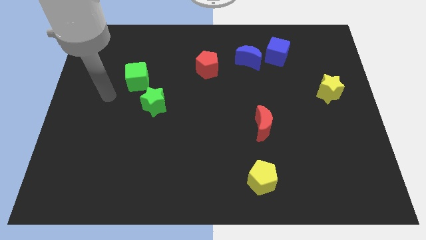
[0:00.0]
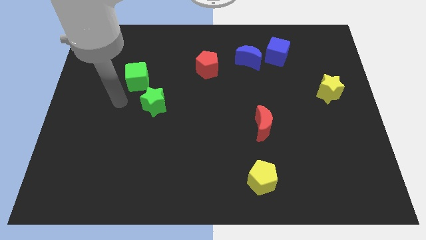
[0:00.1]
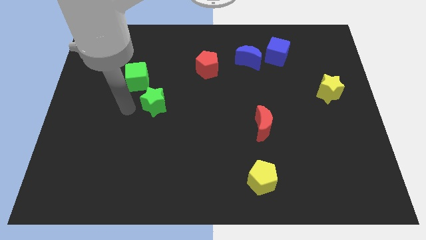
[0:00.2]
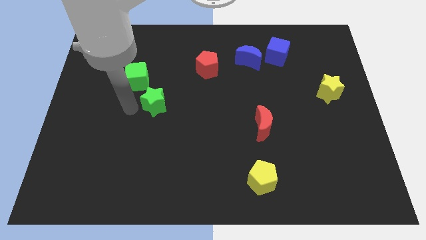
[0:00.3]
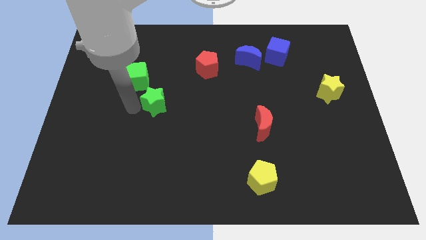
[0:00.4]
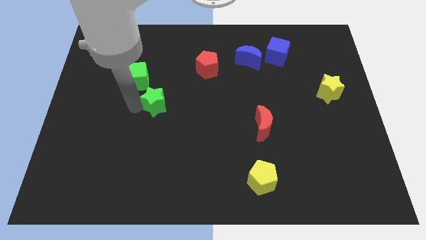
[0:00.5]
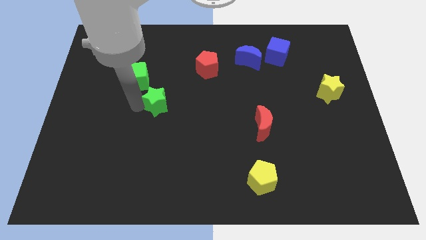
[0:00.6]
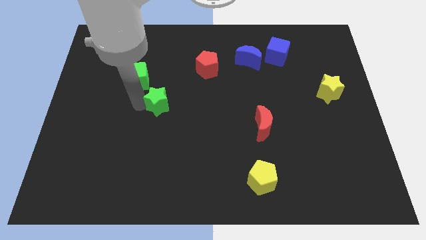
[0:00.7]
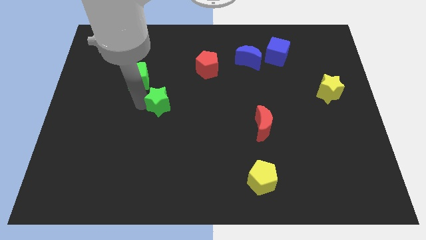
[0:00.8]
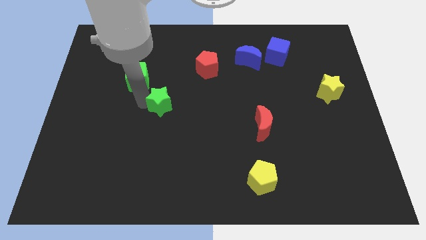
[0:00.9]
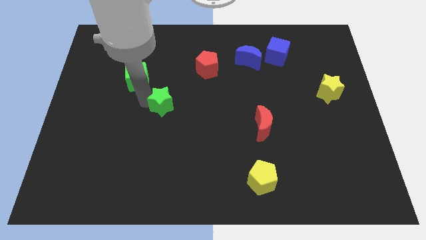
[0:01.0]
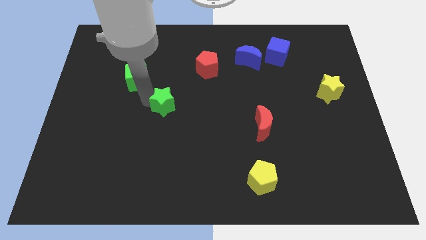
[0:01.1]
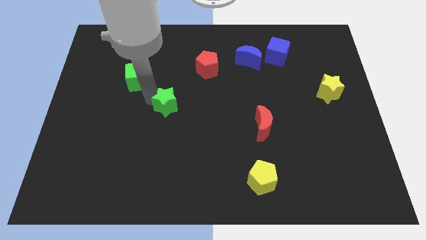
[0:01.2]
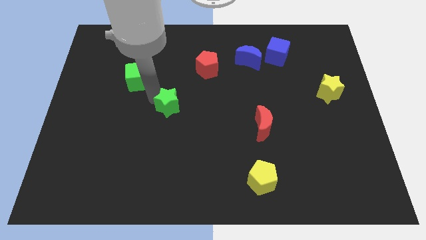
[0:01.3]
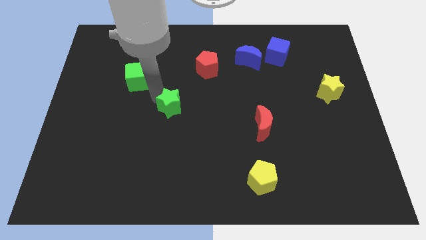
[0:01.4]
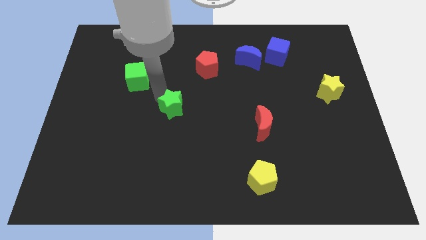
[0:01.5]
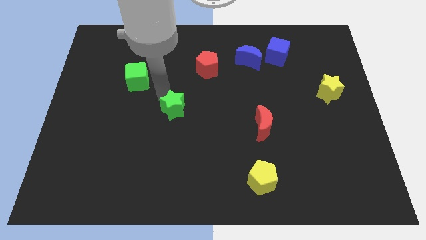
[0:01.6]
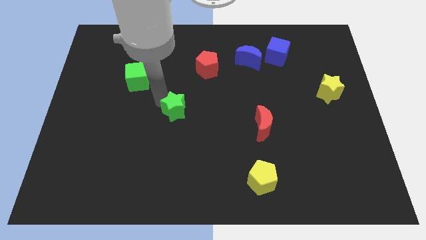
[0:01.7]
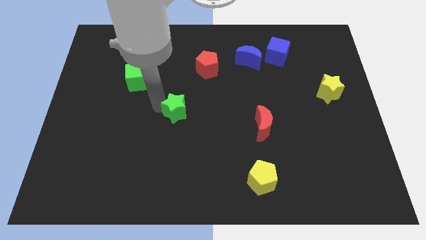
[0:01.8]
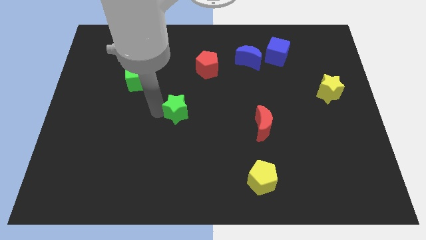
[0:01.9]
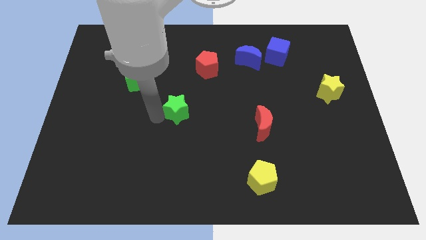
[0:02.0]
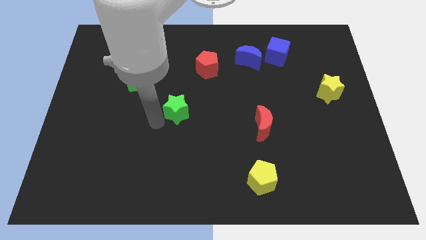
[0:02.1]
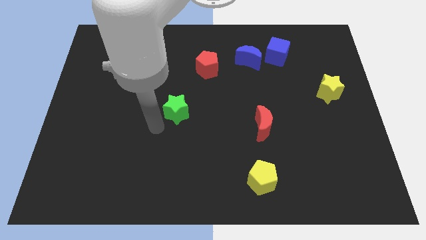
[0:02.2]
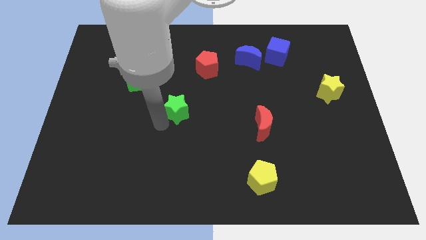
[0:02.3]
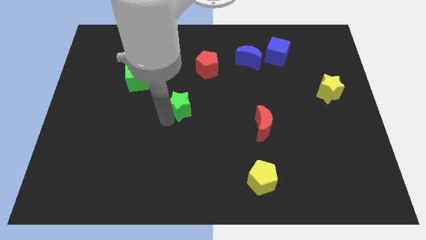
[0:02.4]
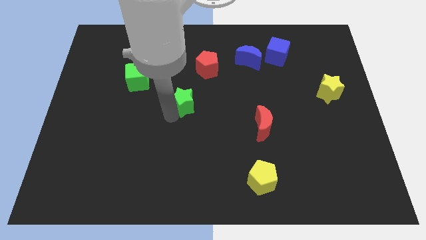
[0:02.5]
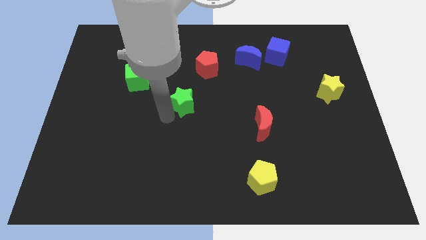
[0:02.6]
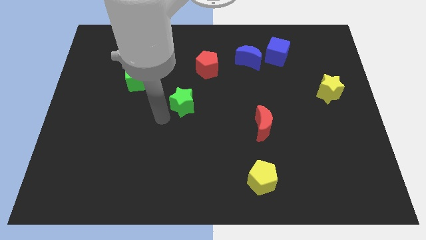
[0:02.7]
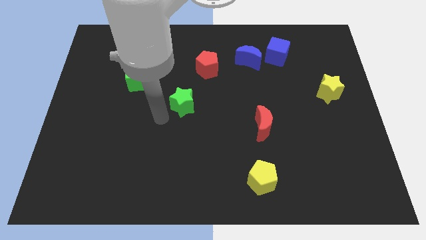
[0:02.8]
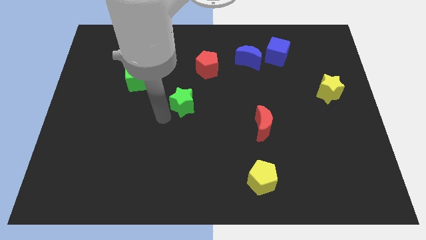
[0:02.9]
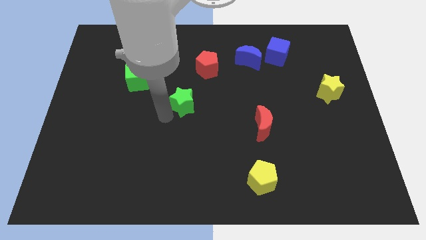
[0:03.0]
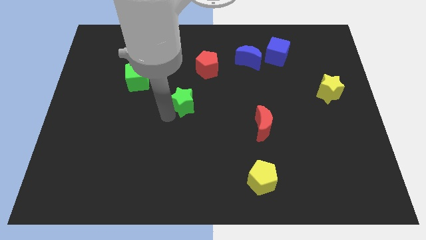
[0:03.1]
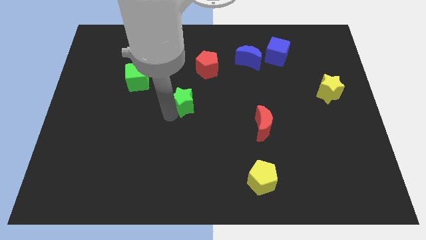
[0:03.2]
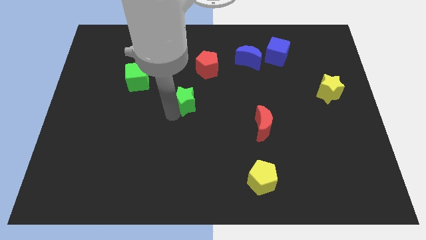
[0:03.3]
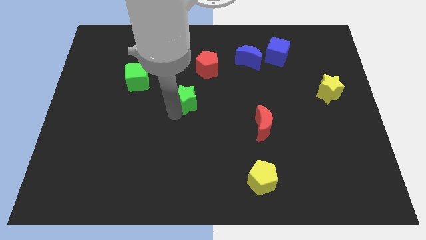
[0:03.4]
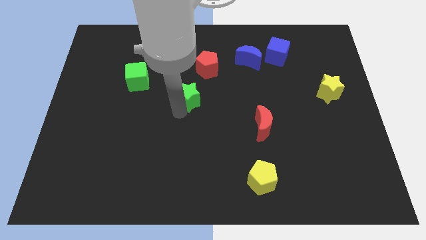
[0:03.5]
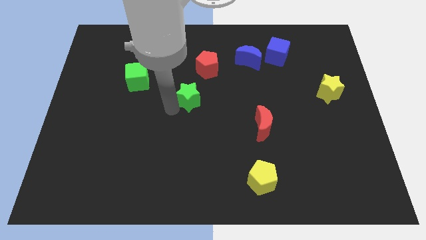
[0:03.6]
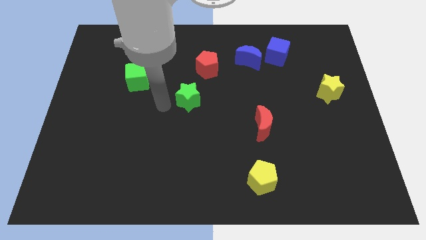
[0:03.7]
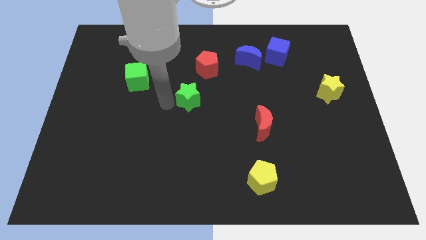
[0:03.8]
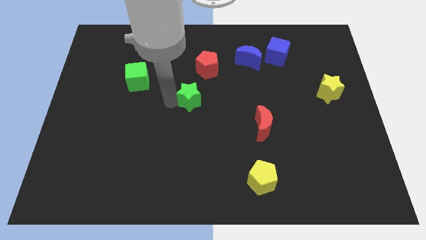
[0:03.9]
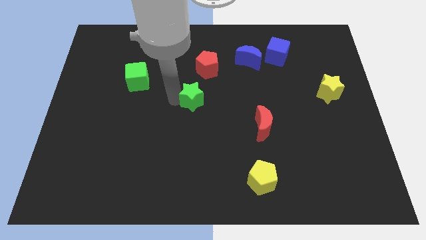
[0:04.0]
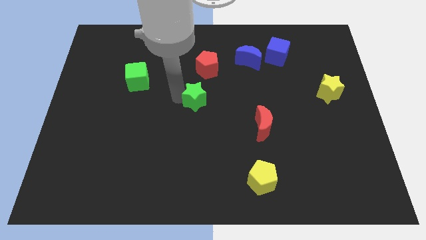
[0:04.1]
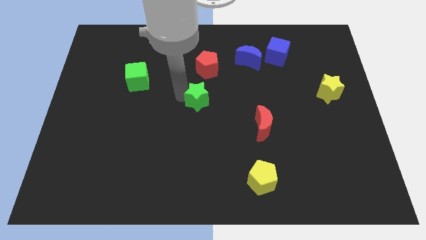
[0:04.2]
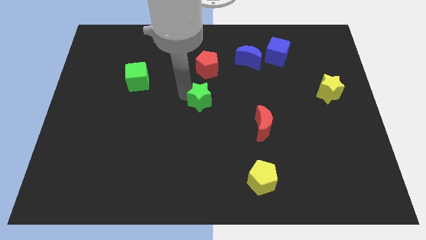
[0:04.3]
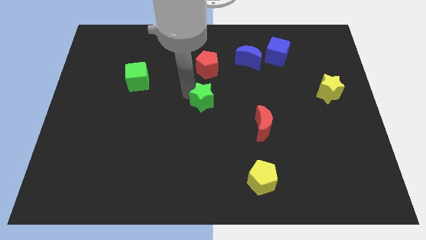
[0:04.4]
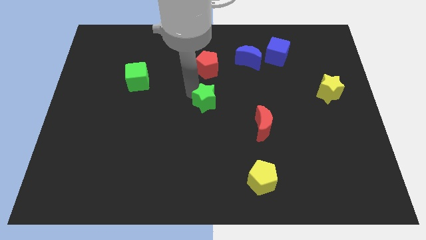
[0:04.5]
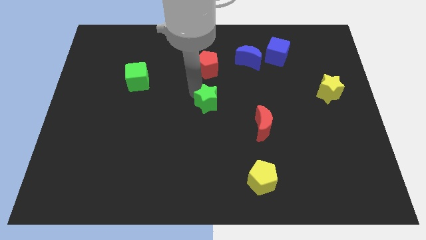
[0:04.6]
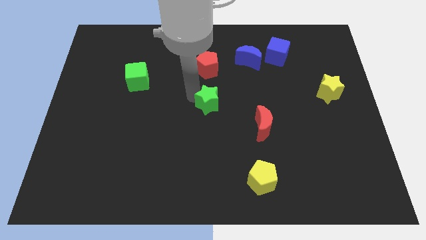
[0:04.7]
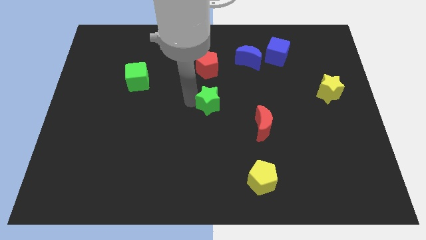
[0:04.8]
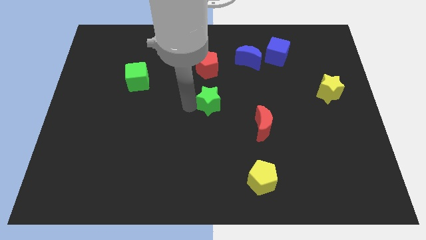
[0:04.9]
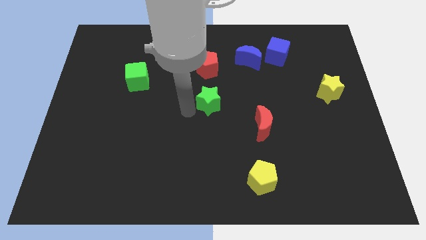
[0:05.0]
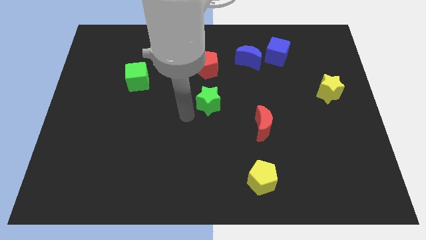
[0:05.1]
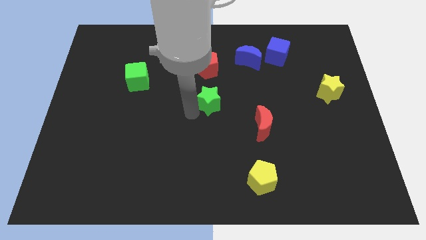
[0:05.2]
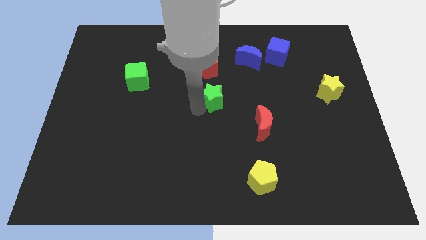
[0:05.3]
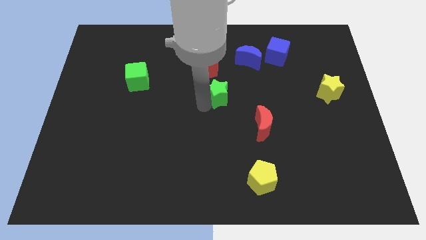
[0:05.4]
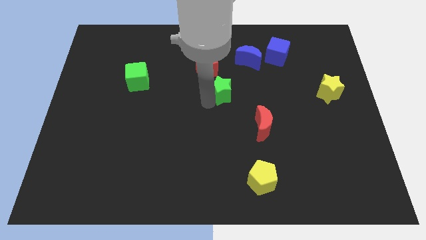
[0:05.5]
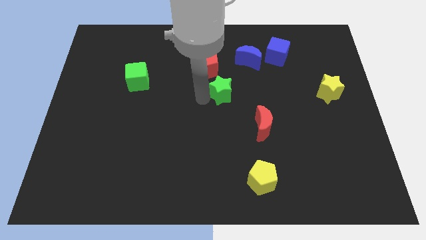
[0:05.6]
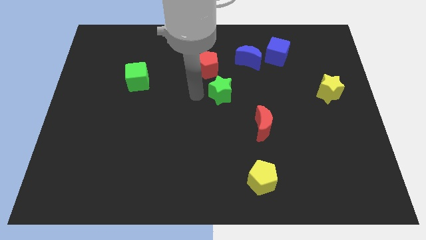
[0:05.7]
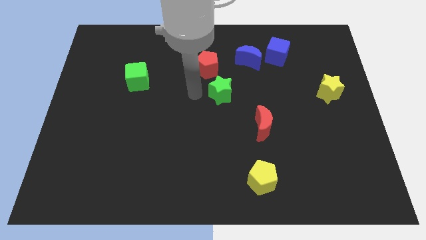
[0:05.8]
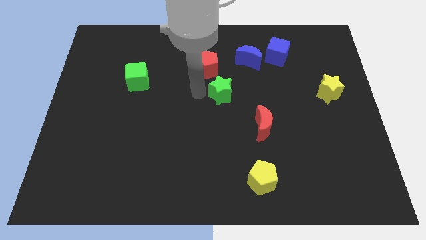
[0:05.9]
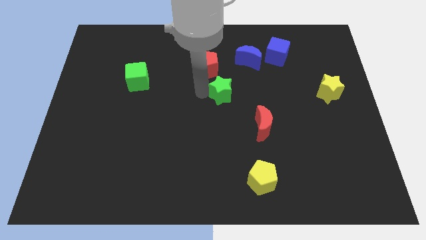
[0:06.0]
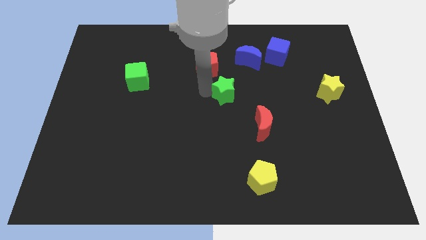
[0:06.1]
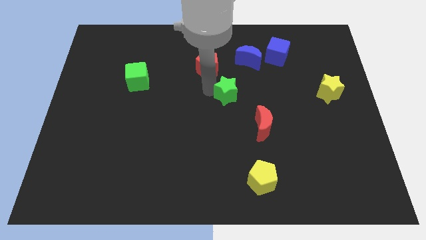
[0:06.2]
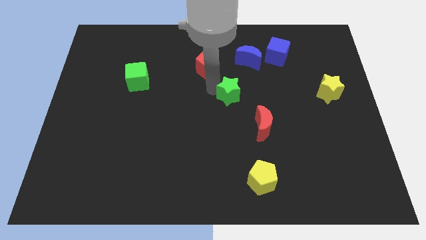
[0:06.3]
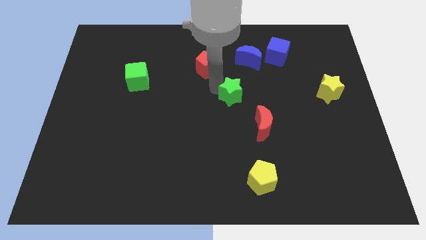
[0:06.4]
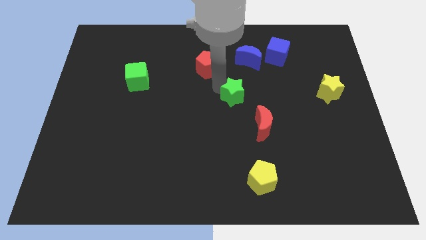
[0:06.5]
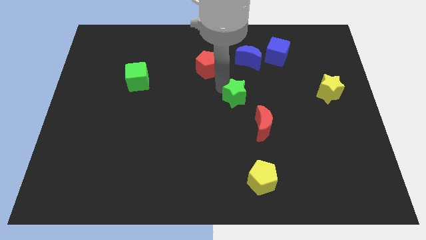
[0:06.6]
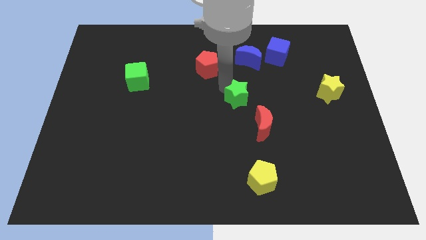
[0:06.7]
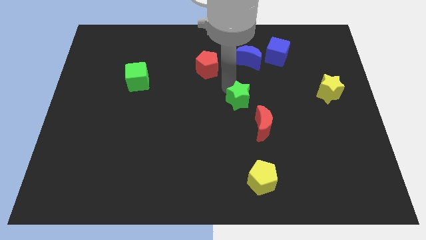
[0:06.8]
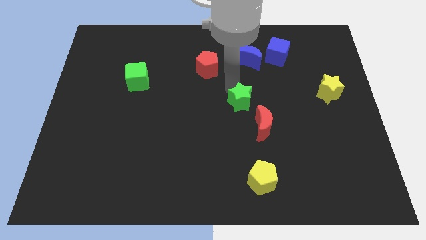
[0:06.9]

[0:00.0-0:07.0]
push the green star to the top side of the red moon

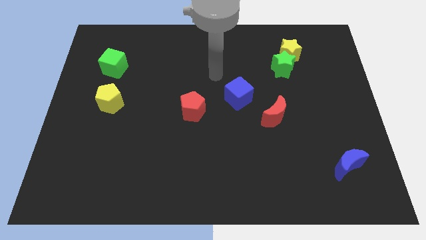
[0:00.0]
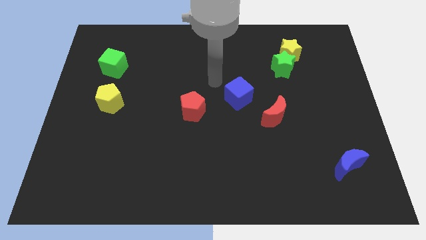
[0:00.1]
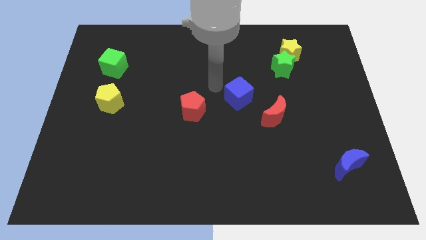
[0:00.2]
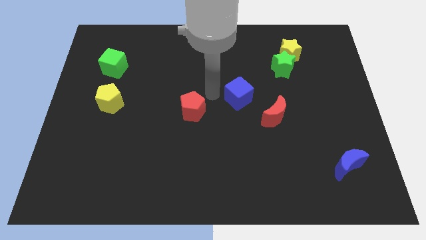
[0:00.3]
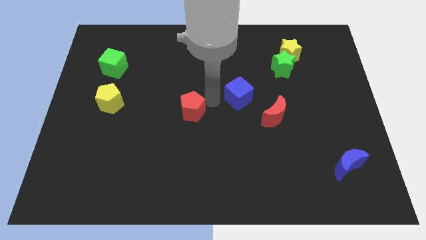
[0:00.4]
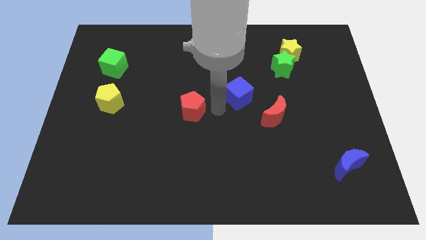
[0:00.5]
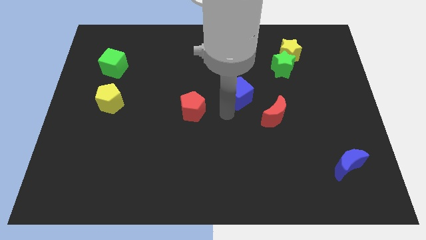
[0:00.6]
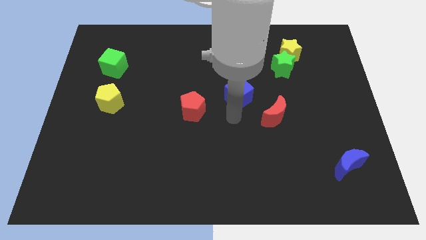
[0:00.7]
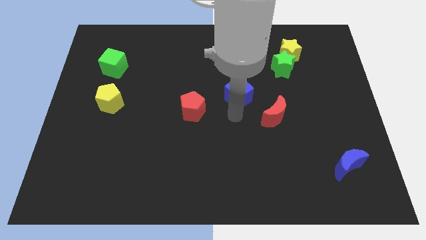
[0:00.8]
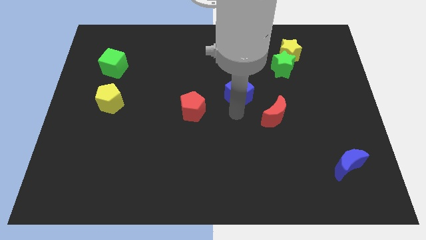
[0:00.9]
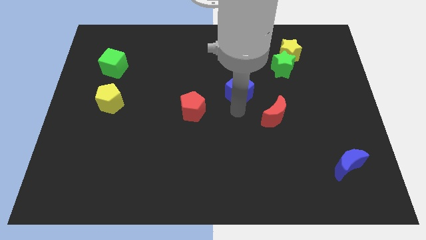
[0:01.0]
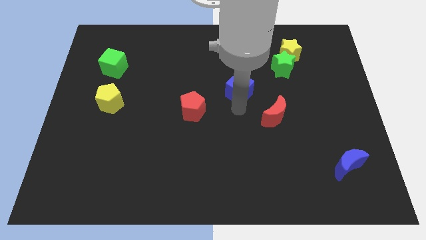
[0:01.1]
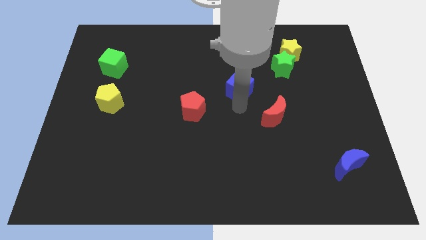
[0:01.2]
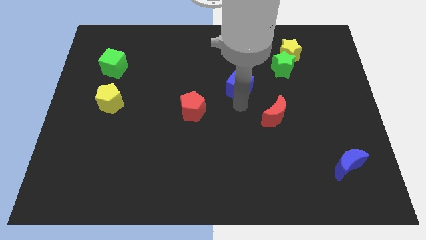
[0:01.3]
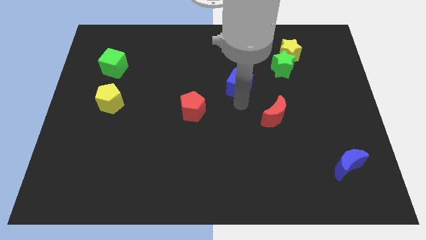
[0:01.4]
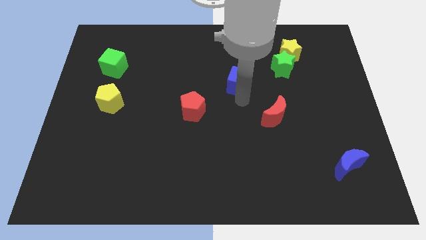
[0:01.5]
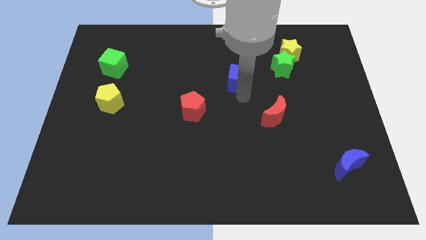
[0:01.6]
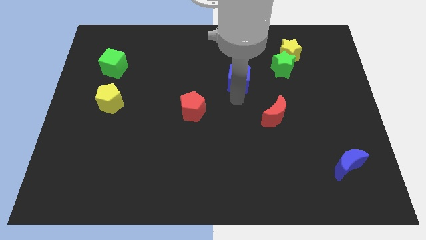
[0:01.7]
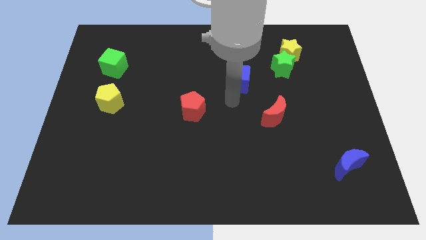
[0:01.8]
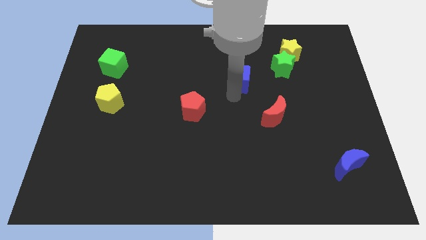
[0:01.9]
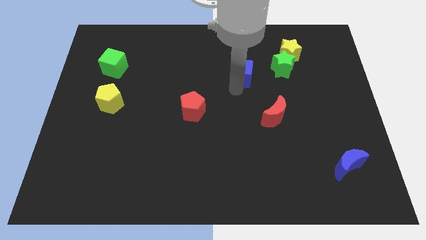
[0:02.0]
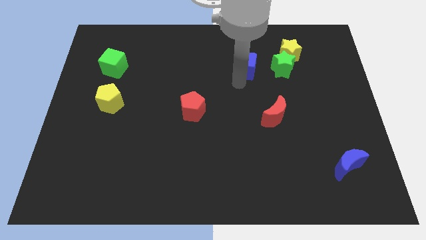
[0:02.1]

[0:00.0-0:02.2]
push the blue cube to the left side of the yellow star
